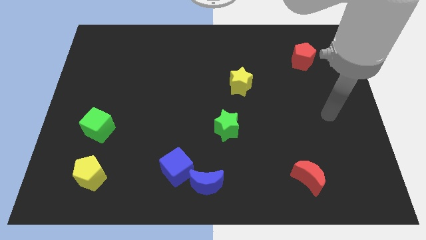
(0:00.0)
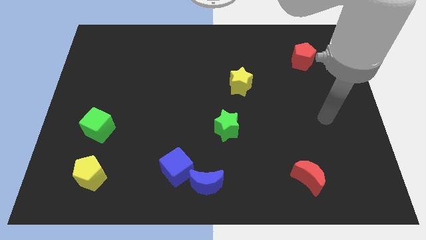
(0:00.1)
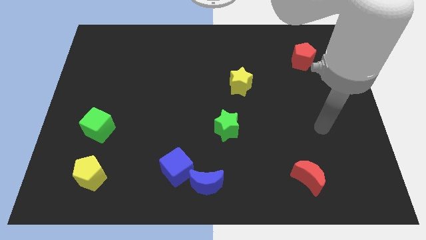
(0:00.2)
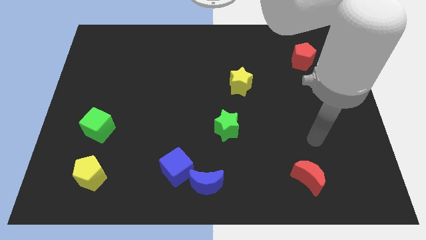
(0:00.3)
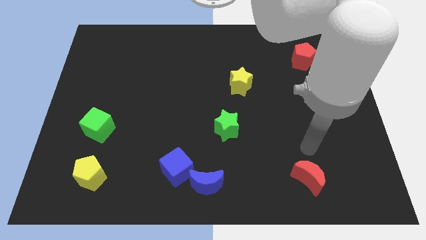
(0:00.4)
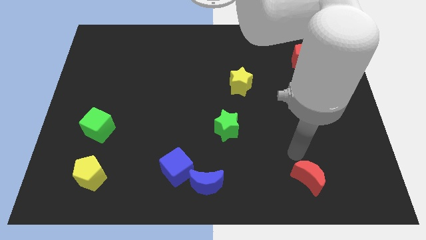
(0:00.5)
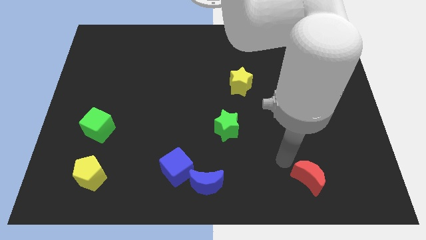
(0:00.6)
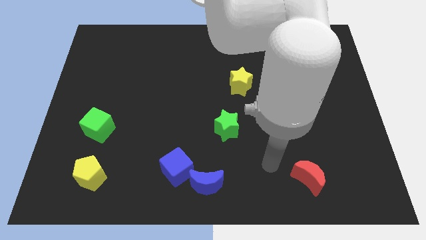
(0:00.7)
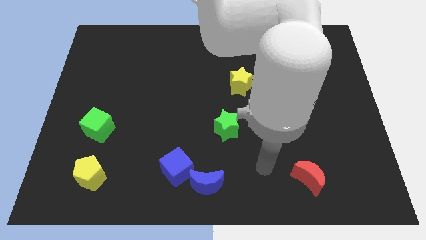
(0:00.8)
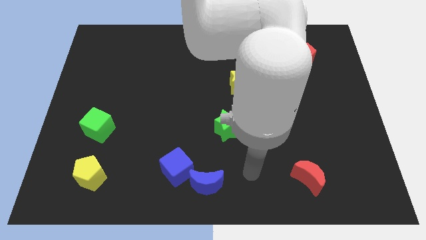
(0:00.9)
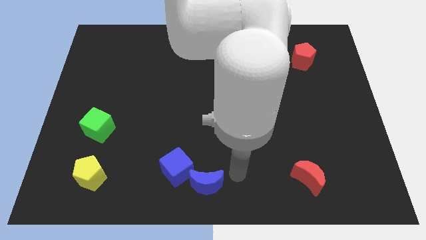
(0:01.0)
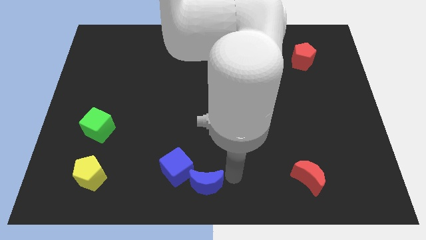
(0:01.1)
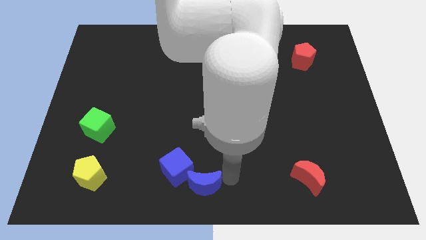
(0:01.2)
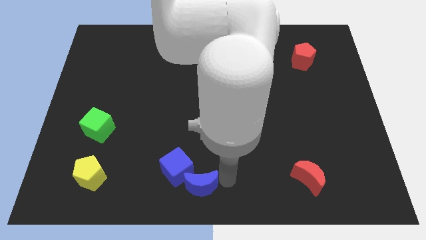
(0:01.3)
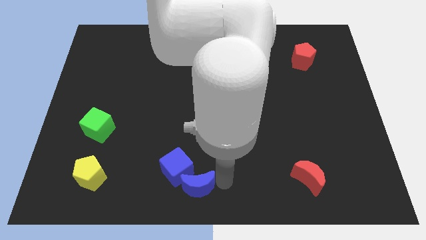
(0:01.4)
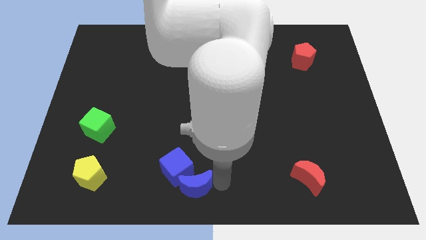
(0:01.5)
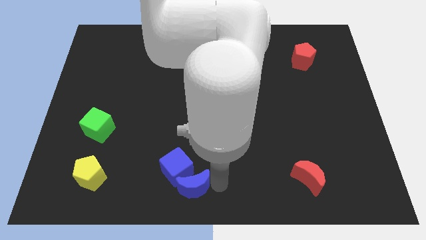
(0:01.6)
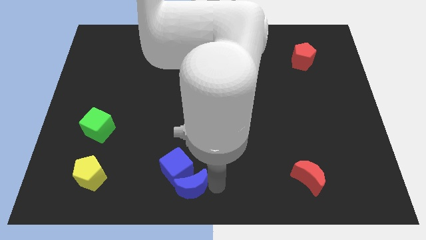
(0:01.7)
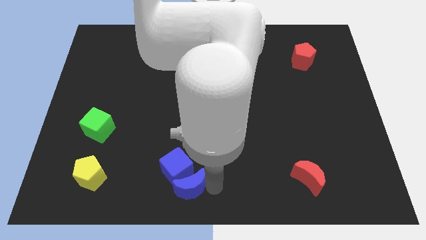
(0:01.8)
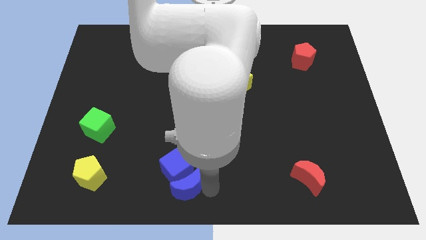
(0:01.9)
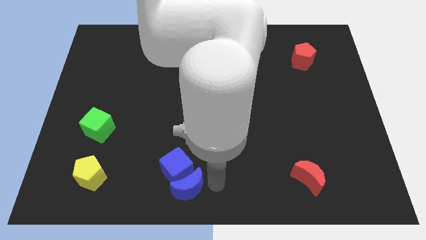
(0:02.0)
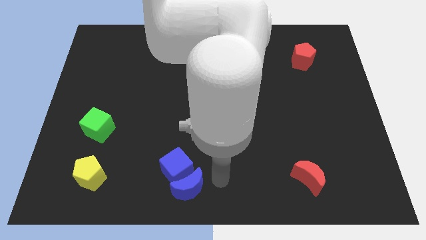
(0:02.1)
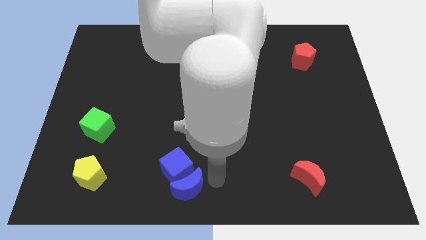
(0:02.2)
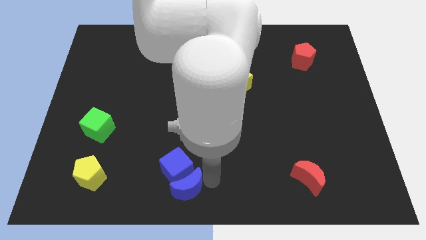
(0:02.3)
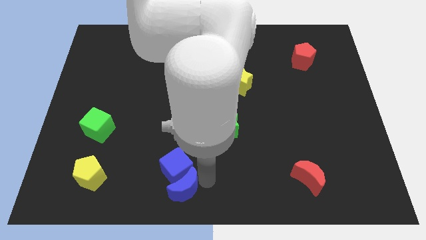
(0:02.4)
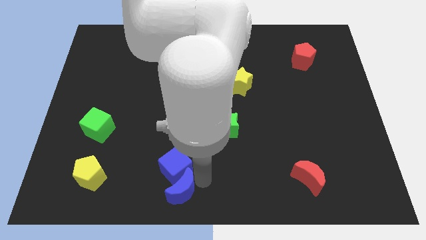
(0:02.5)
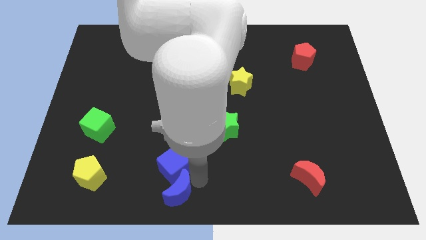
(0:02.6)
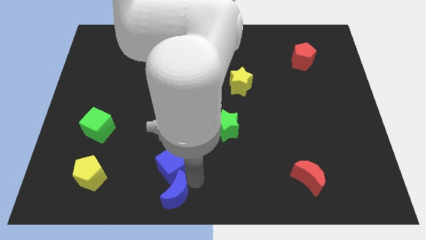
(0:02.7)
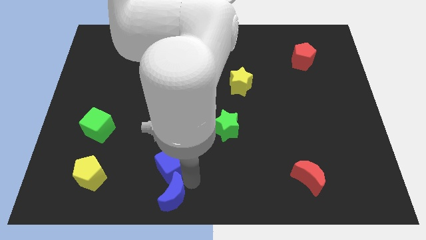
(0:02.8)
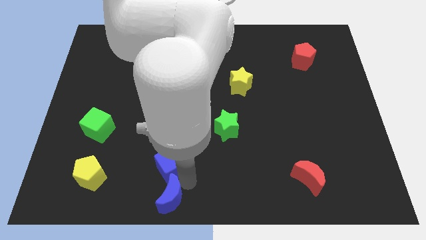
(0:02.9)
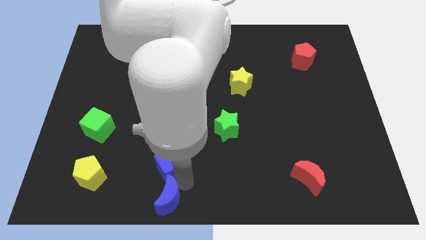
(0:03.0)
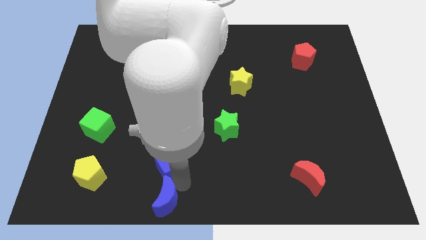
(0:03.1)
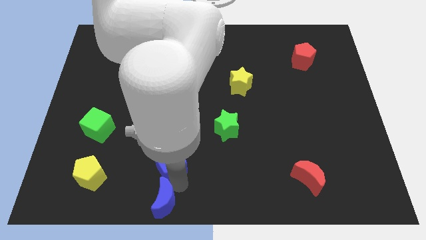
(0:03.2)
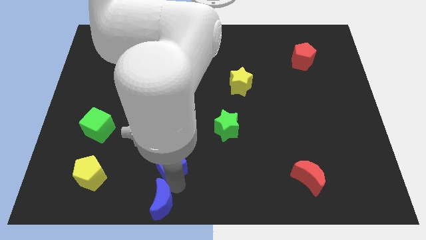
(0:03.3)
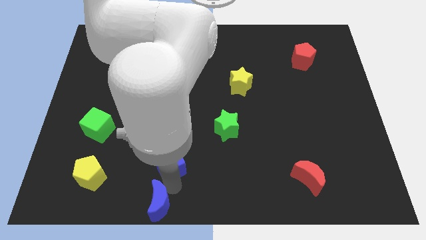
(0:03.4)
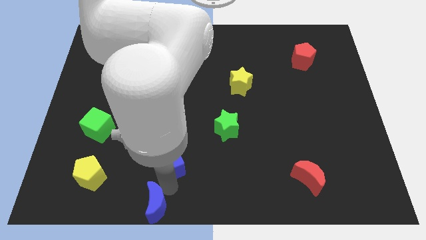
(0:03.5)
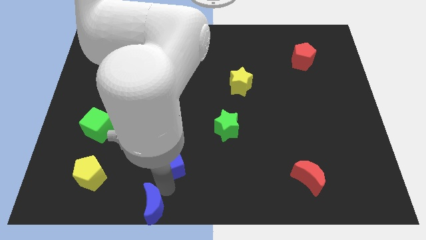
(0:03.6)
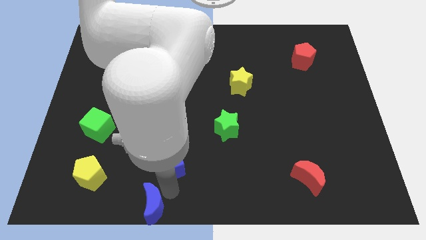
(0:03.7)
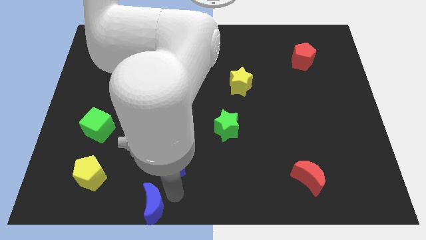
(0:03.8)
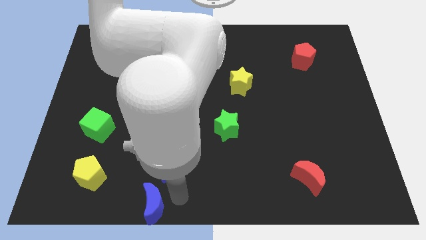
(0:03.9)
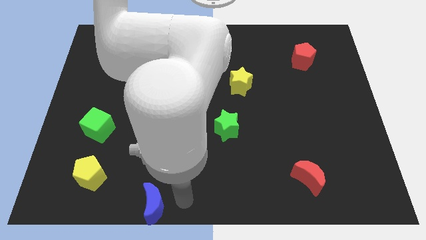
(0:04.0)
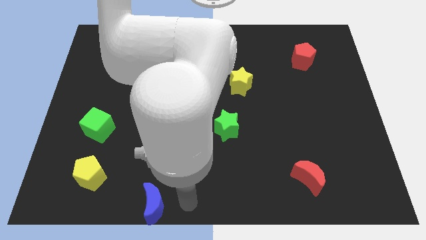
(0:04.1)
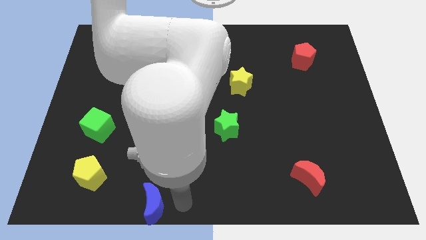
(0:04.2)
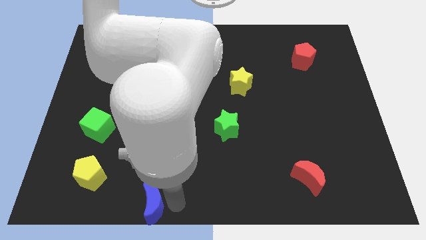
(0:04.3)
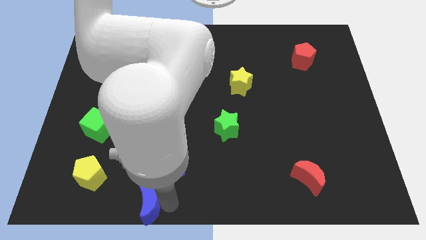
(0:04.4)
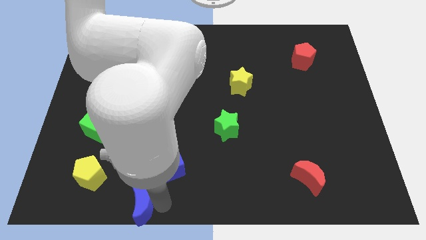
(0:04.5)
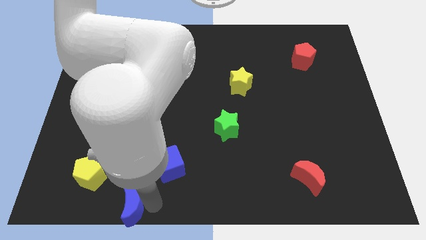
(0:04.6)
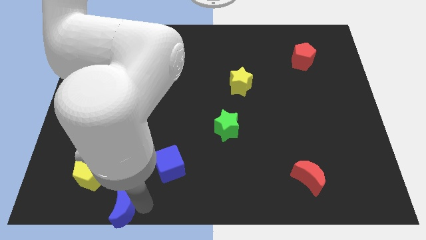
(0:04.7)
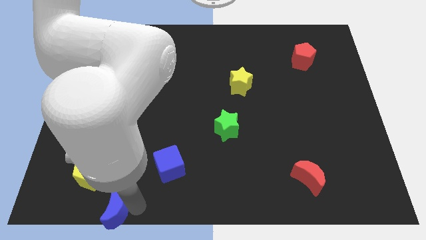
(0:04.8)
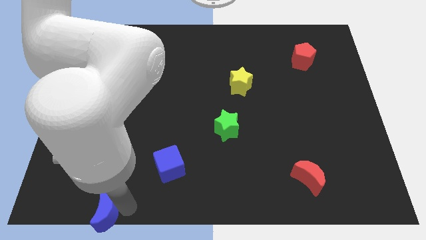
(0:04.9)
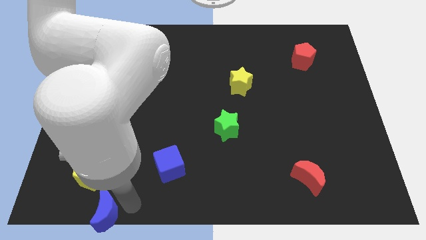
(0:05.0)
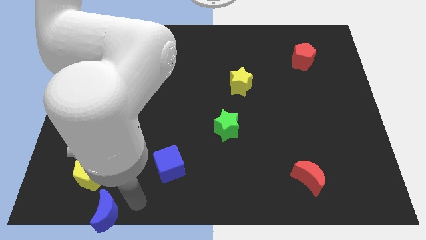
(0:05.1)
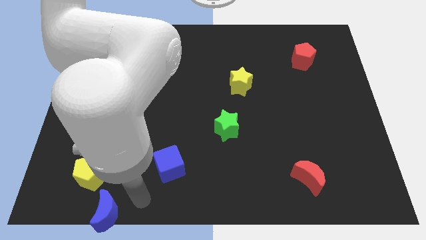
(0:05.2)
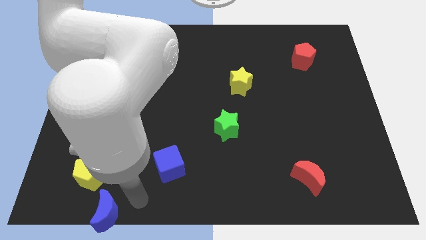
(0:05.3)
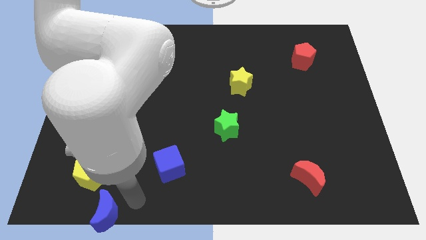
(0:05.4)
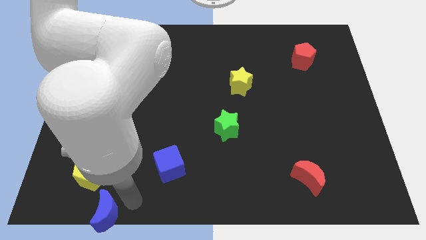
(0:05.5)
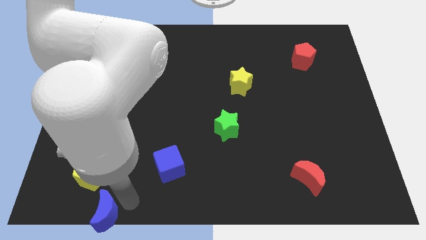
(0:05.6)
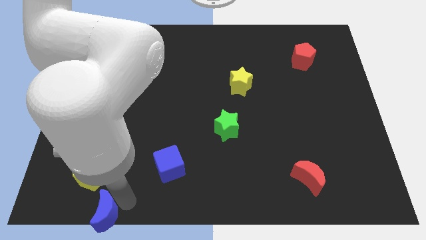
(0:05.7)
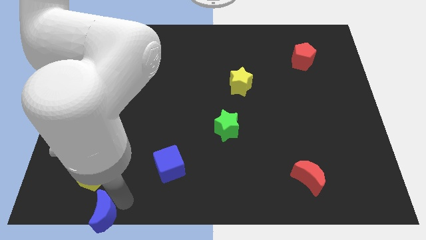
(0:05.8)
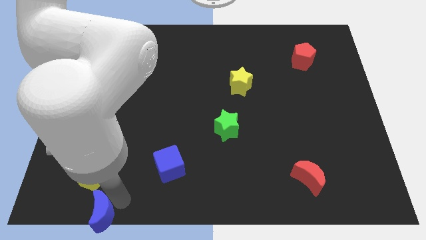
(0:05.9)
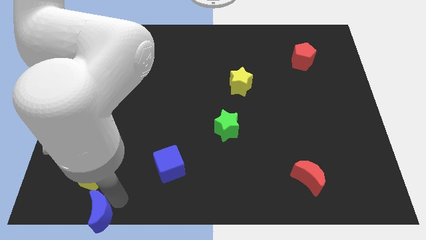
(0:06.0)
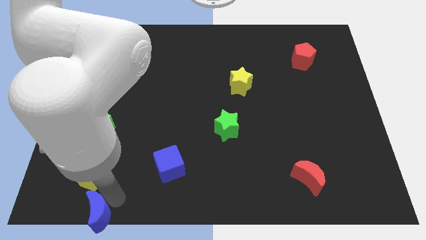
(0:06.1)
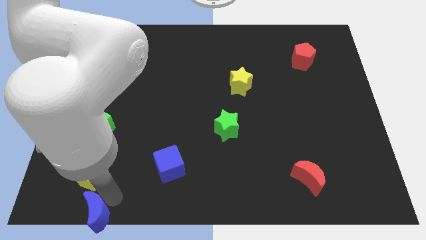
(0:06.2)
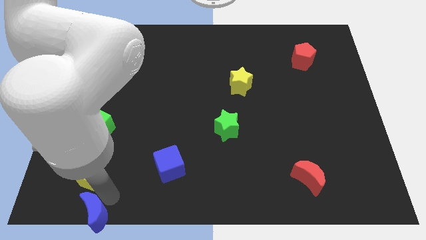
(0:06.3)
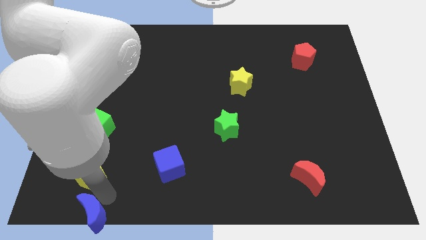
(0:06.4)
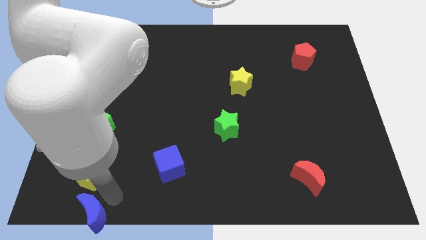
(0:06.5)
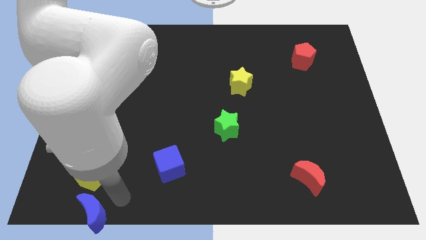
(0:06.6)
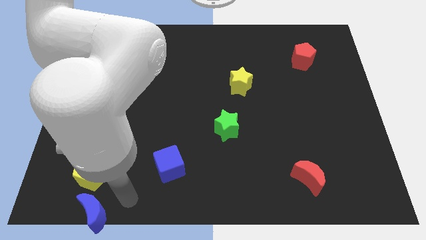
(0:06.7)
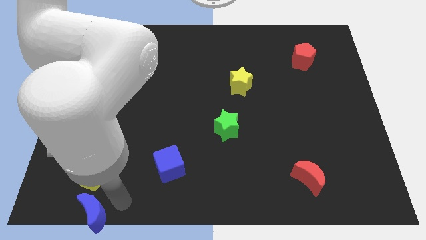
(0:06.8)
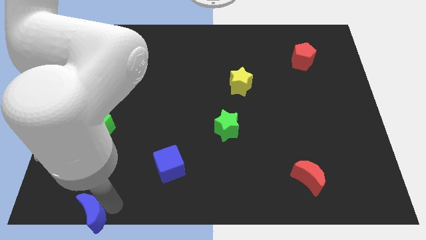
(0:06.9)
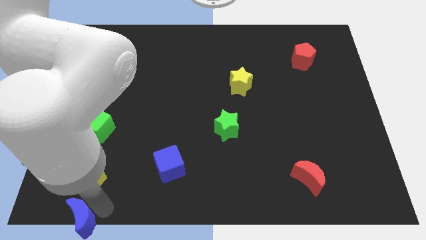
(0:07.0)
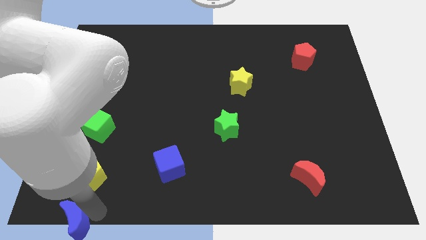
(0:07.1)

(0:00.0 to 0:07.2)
slide the blue moon to the bottom left corner
